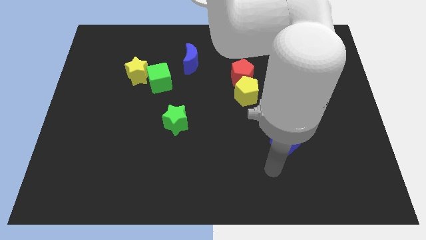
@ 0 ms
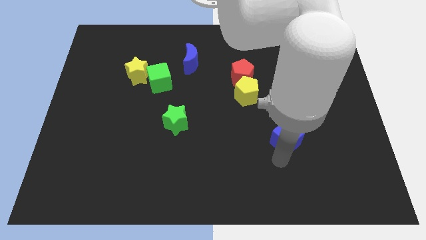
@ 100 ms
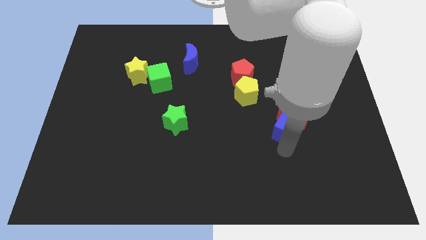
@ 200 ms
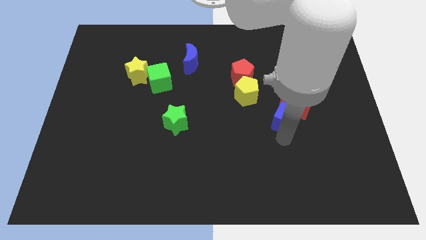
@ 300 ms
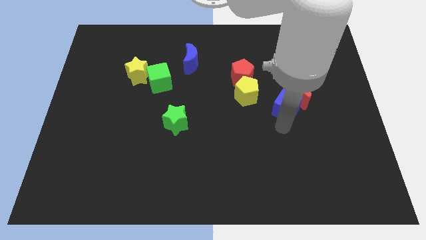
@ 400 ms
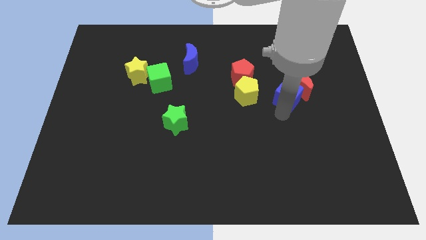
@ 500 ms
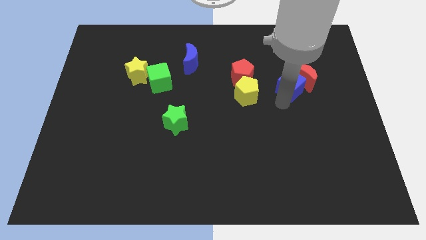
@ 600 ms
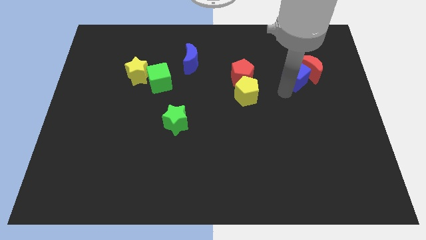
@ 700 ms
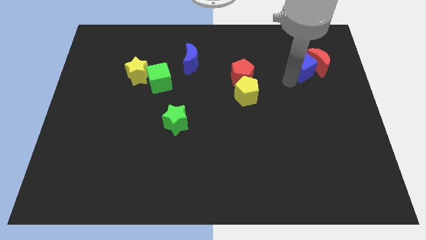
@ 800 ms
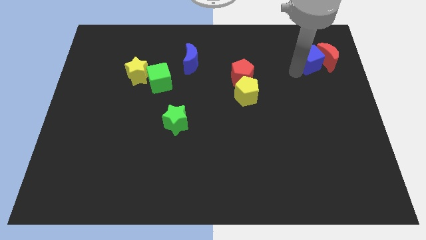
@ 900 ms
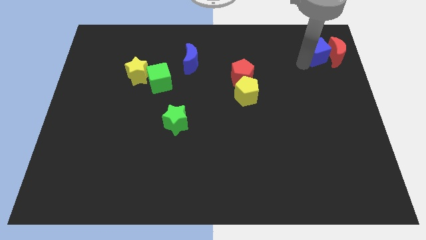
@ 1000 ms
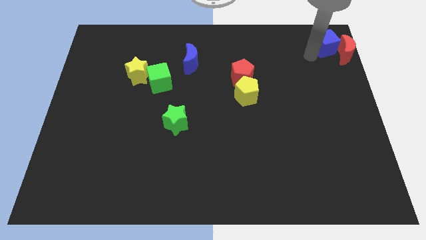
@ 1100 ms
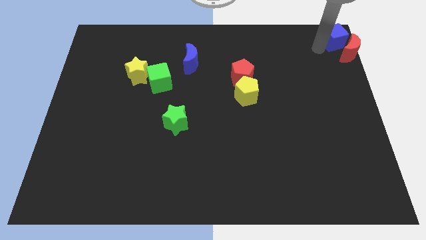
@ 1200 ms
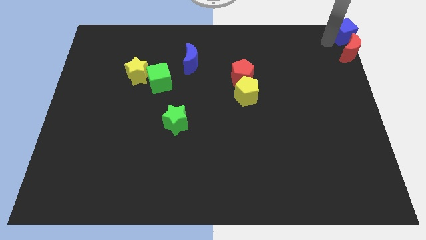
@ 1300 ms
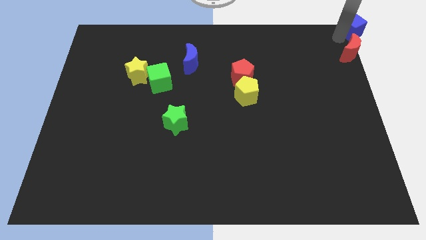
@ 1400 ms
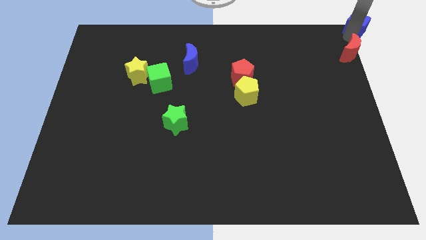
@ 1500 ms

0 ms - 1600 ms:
move the red moon away from the blue cube

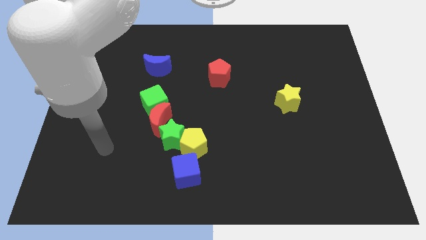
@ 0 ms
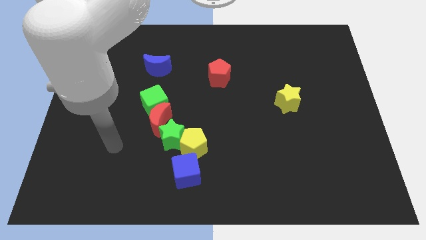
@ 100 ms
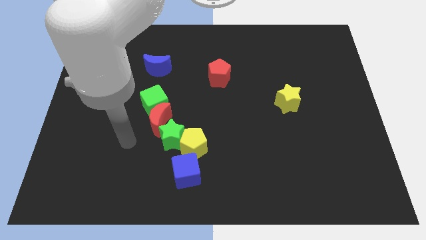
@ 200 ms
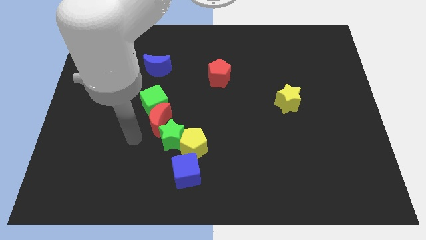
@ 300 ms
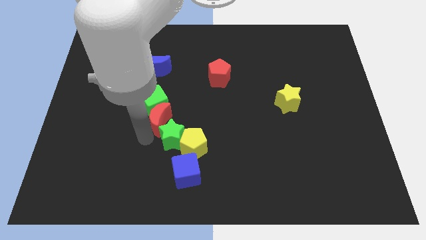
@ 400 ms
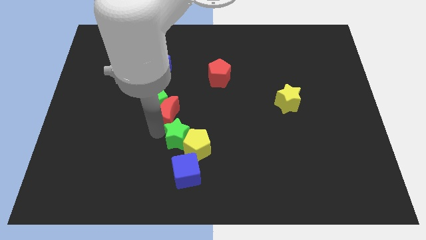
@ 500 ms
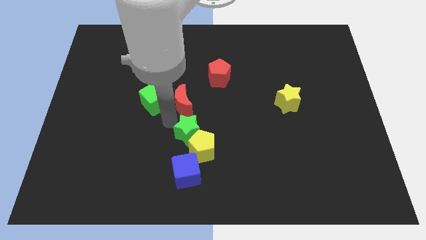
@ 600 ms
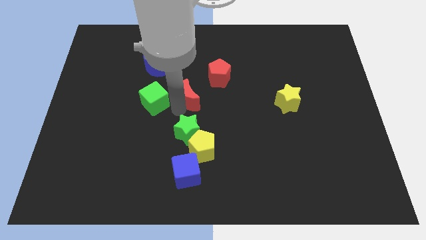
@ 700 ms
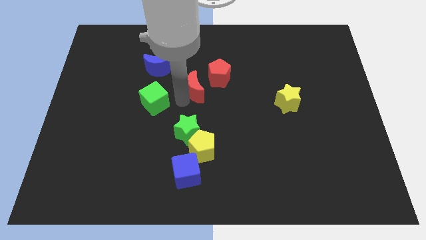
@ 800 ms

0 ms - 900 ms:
move the green cube away from the red moon

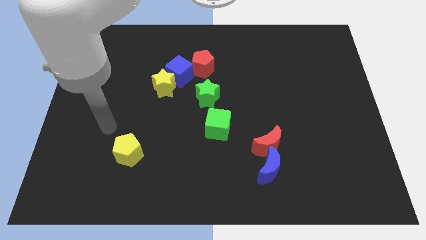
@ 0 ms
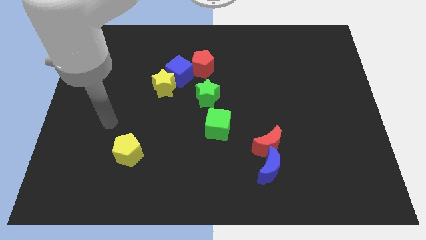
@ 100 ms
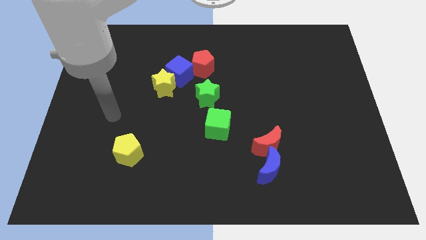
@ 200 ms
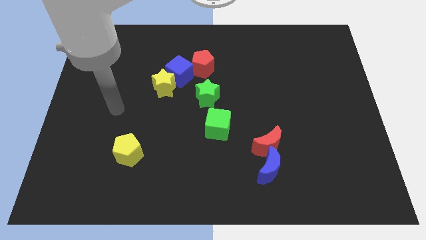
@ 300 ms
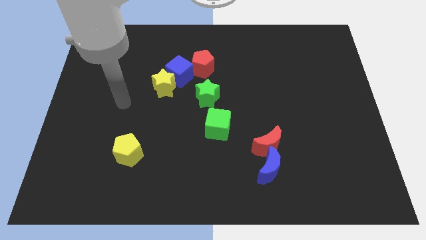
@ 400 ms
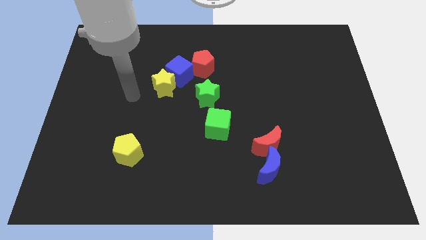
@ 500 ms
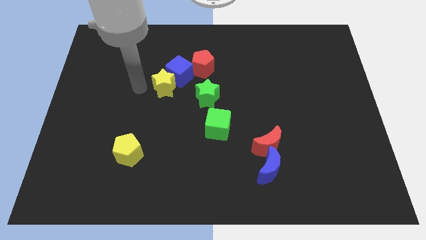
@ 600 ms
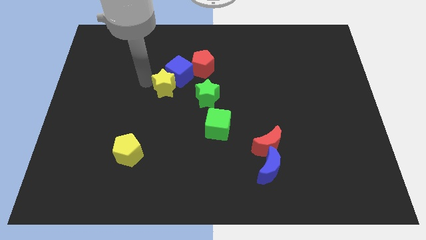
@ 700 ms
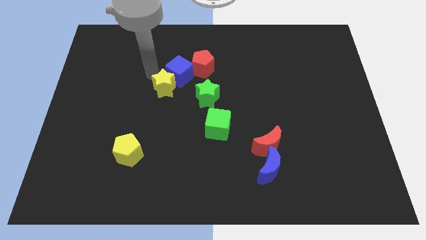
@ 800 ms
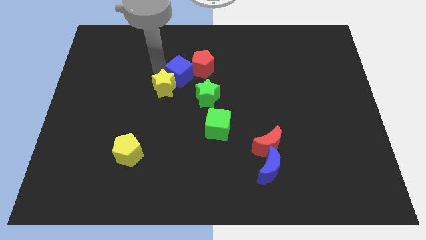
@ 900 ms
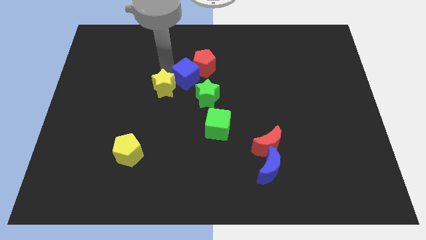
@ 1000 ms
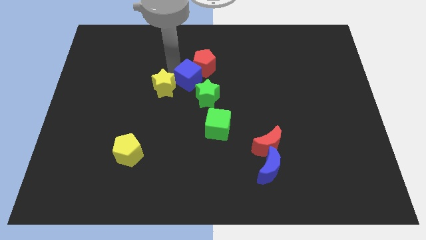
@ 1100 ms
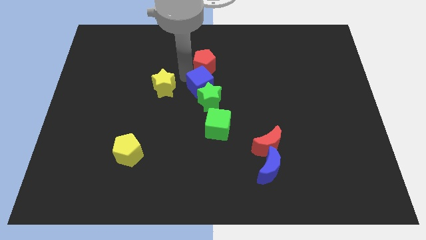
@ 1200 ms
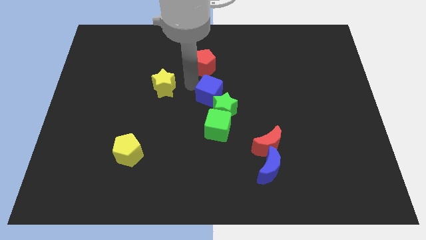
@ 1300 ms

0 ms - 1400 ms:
move the yellow star away from the blue cube

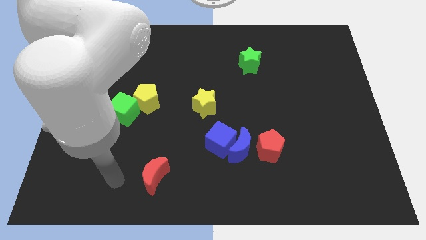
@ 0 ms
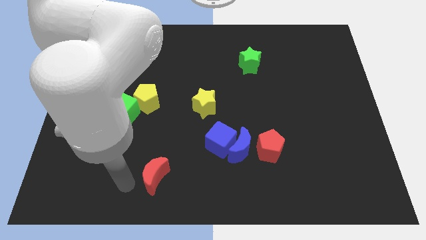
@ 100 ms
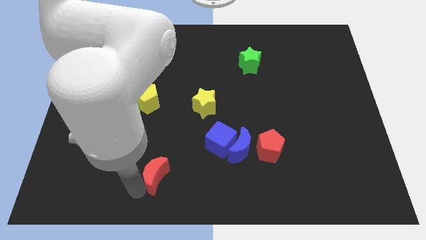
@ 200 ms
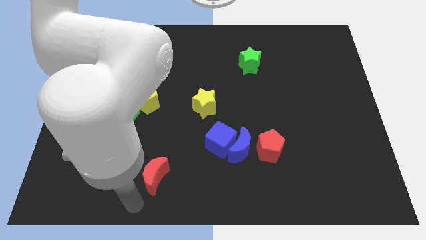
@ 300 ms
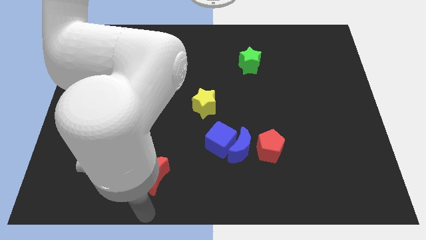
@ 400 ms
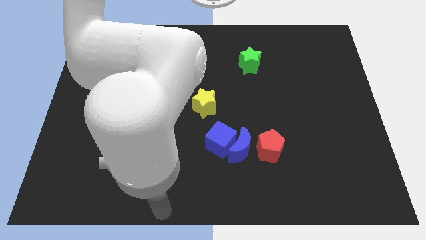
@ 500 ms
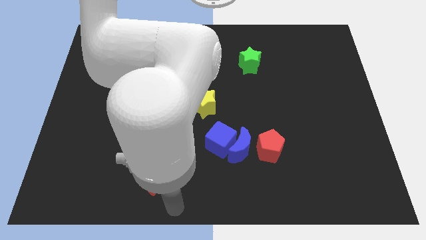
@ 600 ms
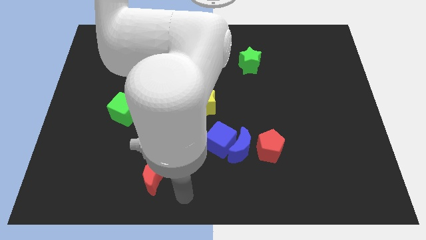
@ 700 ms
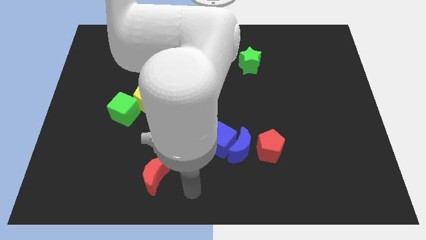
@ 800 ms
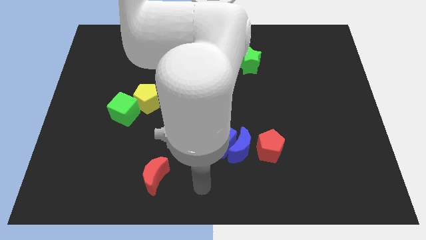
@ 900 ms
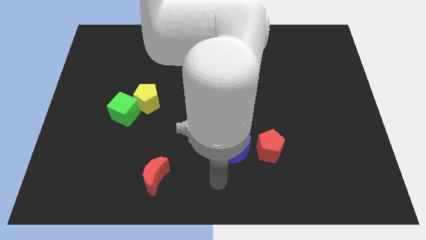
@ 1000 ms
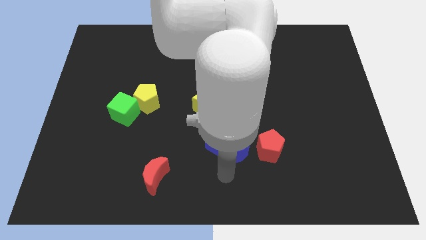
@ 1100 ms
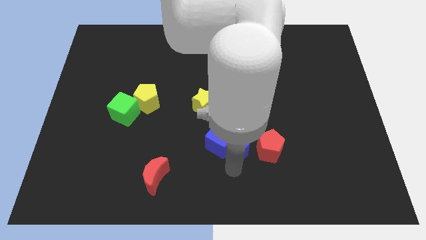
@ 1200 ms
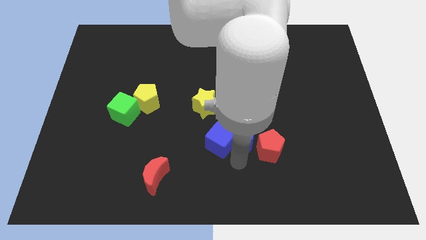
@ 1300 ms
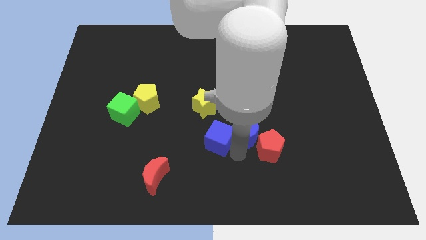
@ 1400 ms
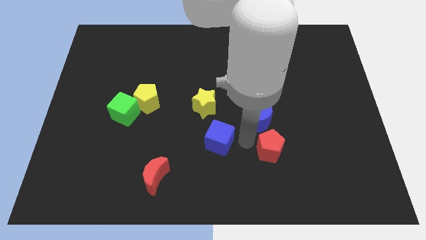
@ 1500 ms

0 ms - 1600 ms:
separate the blue cube from the blue moon

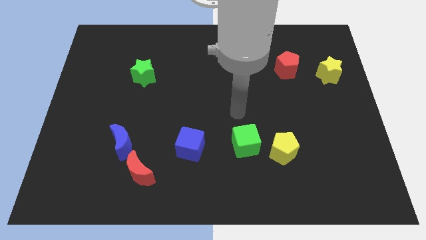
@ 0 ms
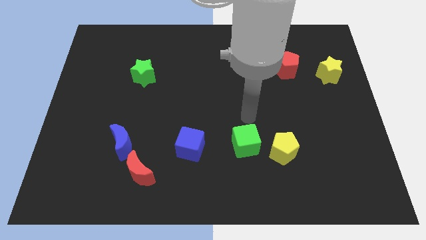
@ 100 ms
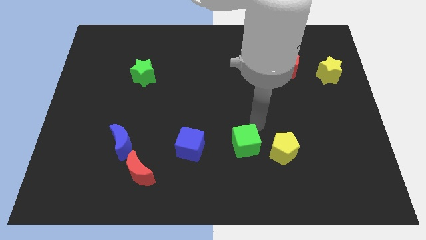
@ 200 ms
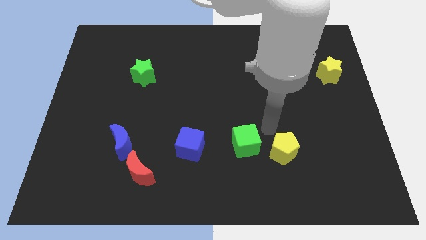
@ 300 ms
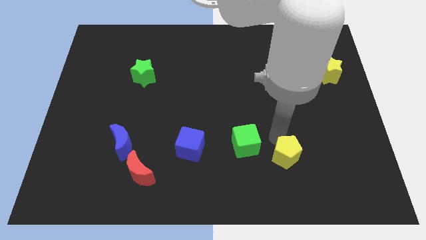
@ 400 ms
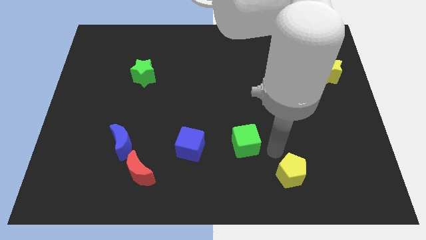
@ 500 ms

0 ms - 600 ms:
separate the green cube from the yellow pentagon

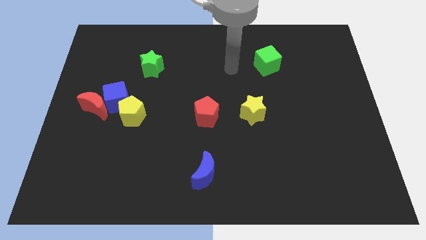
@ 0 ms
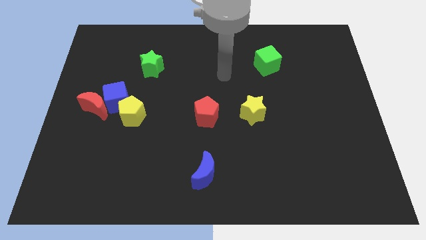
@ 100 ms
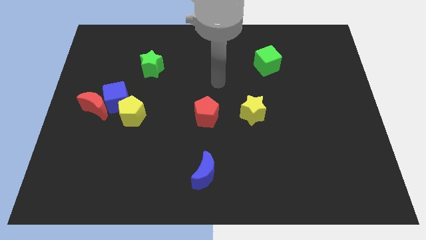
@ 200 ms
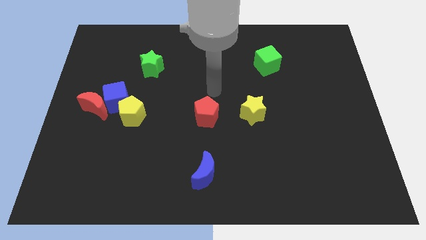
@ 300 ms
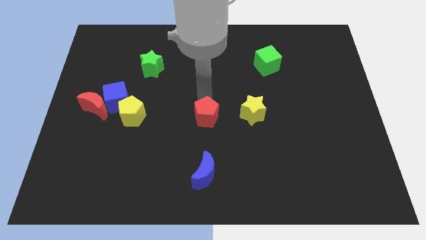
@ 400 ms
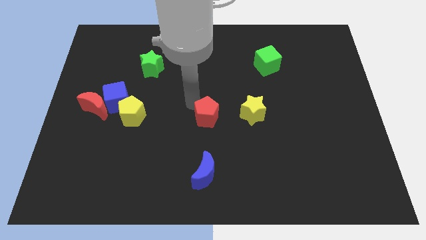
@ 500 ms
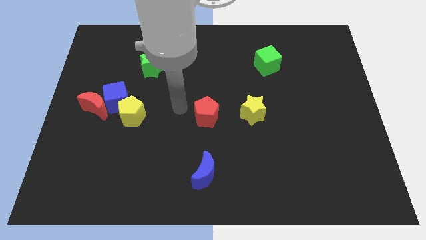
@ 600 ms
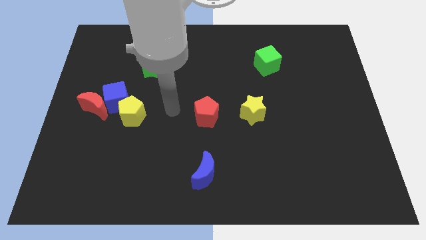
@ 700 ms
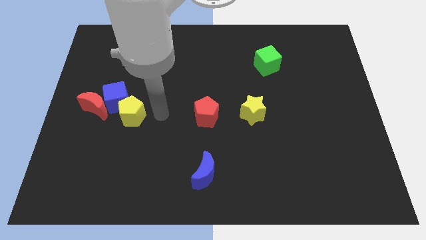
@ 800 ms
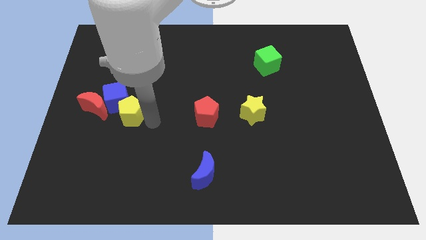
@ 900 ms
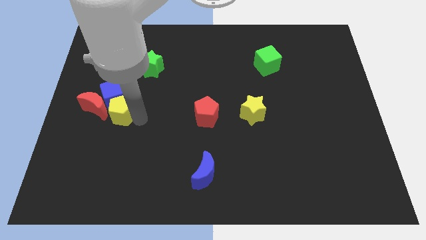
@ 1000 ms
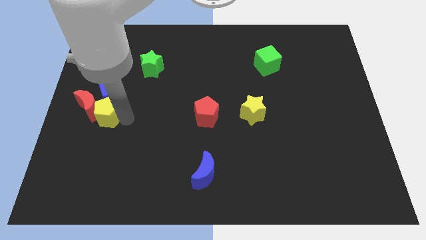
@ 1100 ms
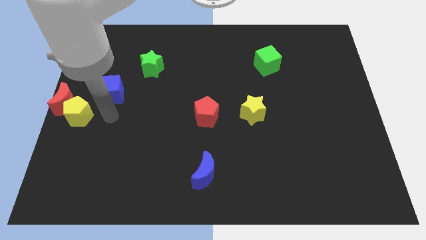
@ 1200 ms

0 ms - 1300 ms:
pull the blue cube apart from the red moon and yellow pentagon

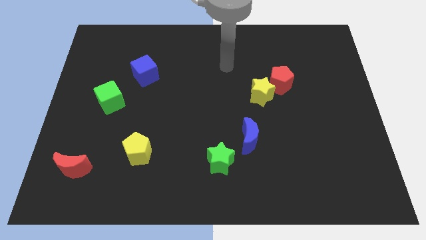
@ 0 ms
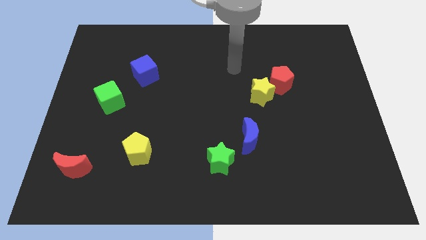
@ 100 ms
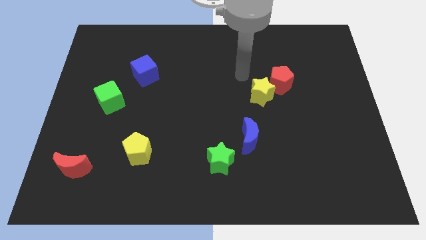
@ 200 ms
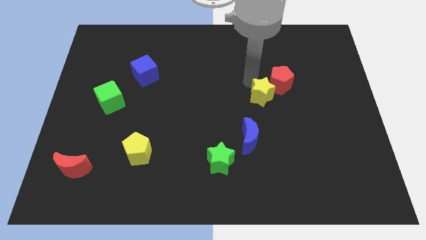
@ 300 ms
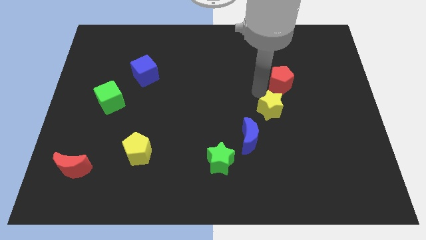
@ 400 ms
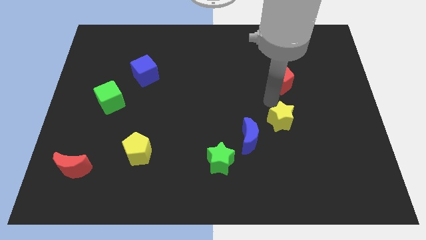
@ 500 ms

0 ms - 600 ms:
separate the red pentagon from the yellow star

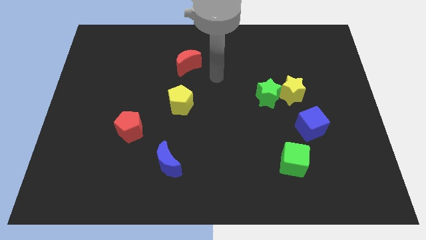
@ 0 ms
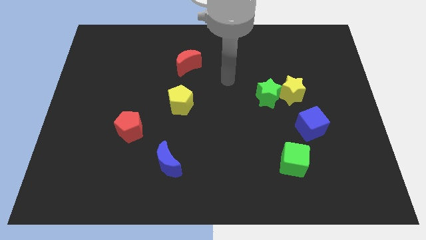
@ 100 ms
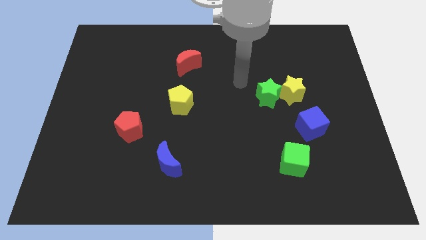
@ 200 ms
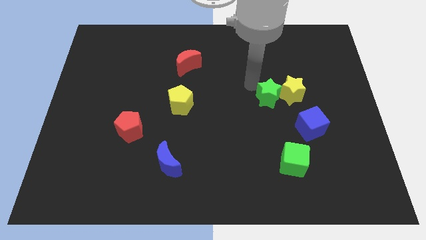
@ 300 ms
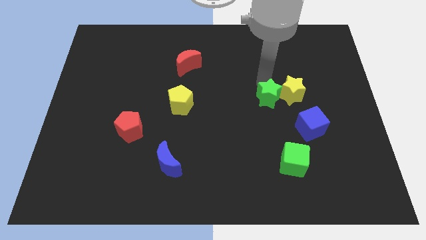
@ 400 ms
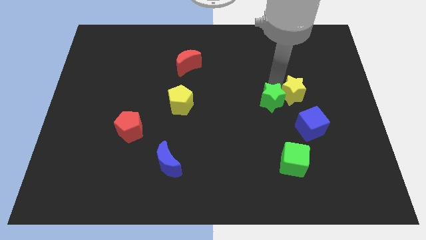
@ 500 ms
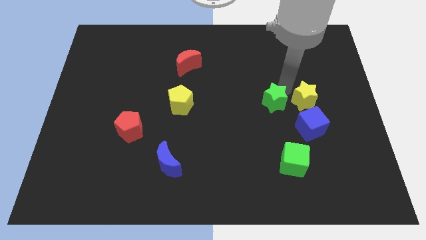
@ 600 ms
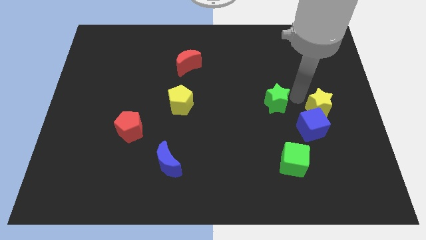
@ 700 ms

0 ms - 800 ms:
pull the green star apart from the yellow star

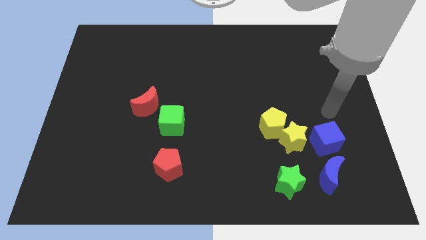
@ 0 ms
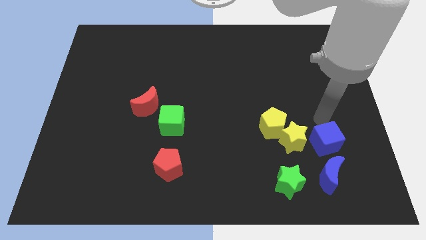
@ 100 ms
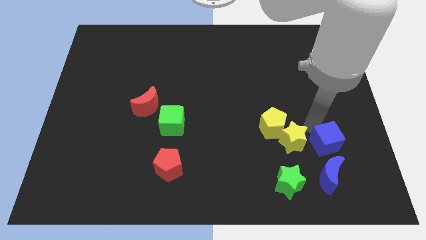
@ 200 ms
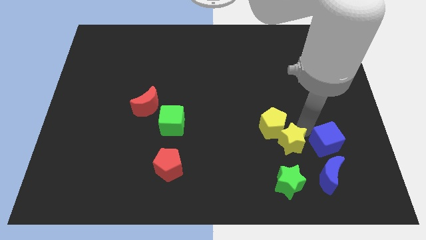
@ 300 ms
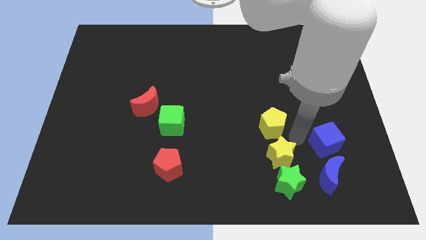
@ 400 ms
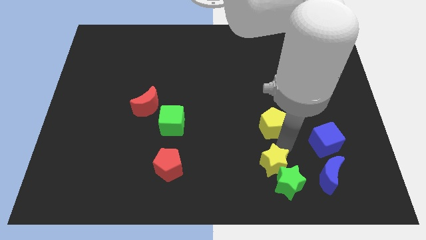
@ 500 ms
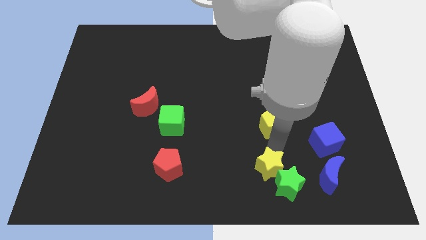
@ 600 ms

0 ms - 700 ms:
pull the yellow pentagon apart from the yellow star
